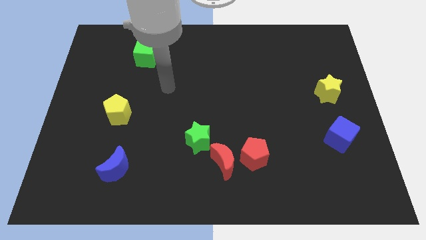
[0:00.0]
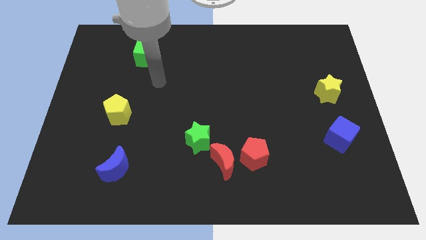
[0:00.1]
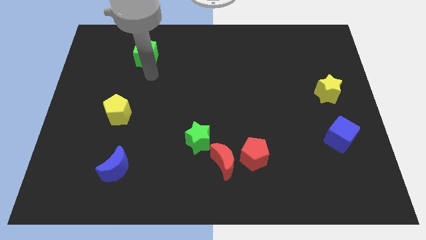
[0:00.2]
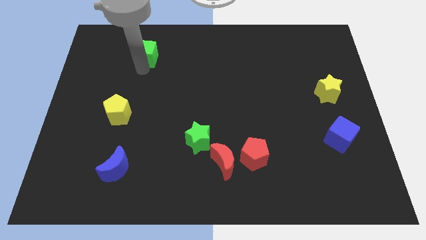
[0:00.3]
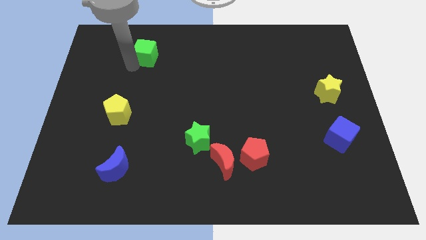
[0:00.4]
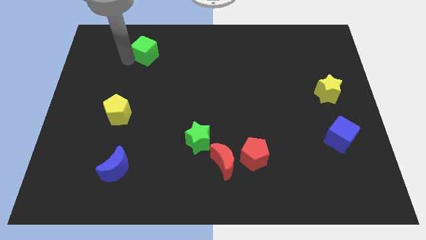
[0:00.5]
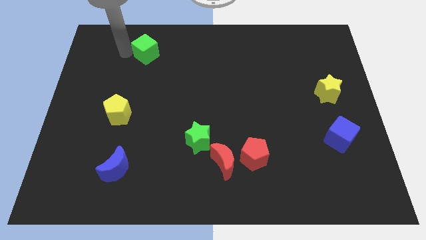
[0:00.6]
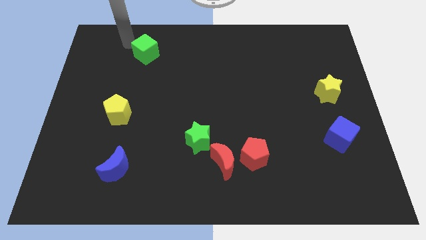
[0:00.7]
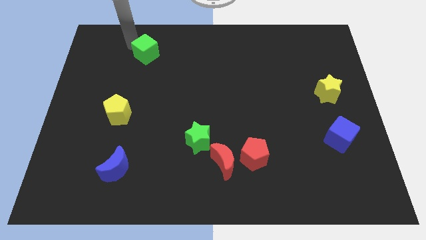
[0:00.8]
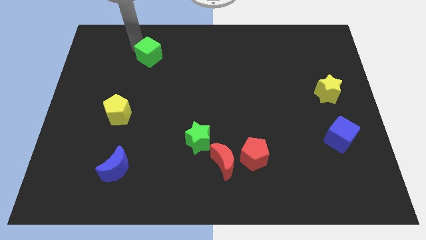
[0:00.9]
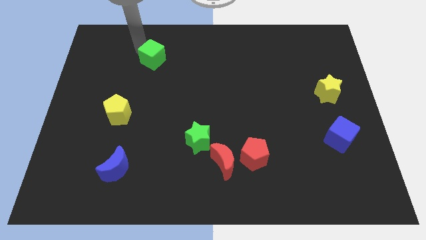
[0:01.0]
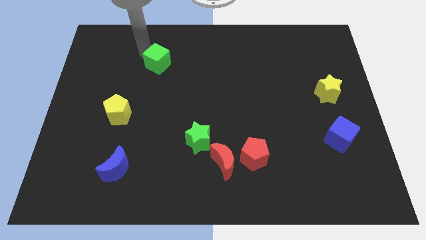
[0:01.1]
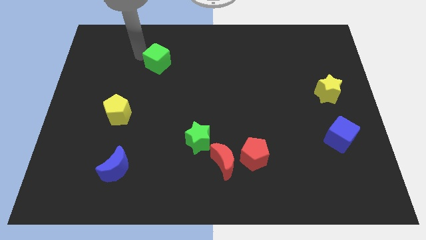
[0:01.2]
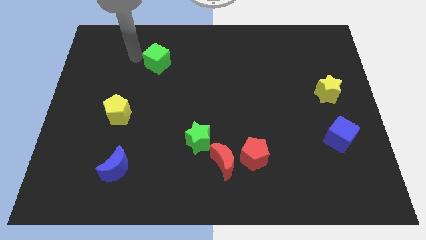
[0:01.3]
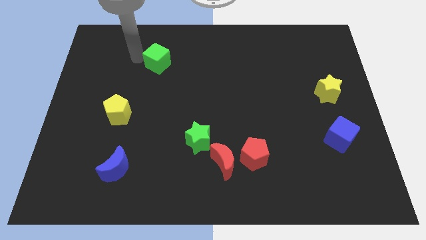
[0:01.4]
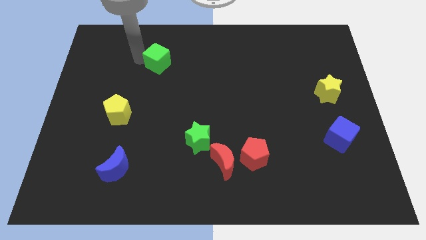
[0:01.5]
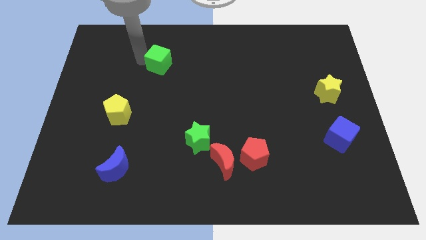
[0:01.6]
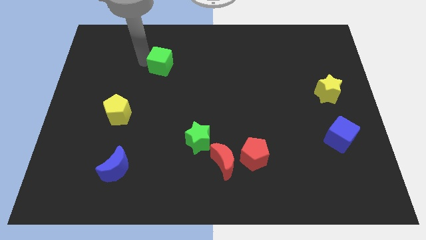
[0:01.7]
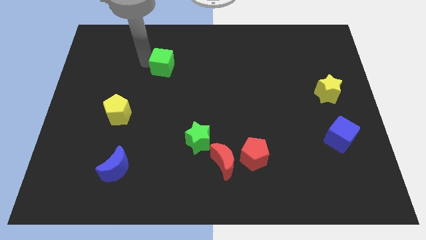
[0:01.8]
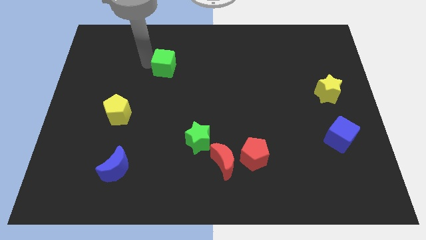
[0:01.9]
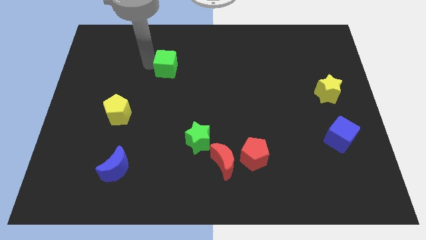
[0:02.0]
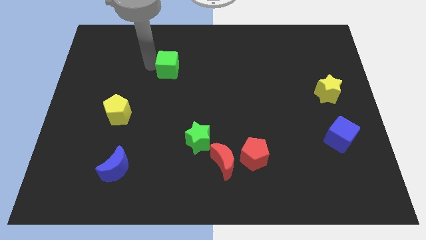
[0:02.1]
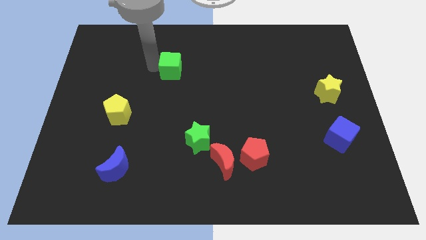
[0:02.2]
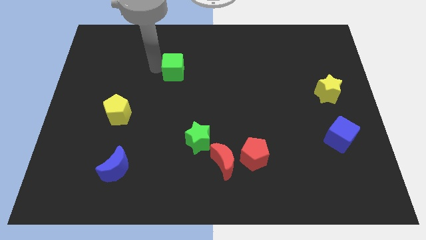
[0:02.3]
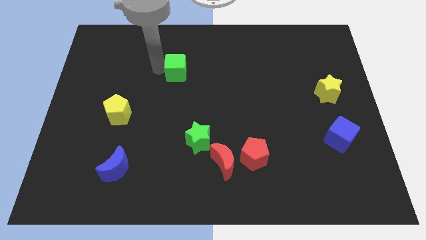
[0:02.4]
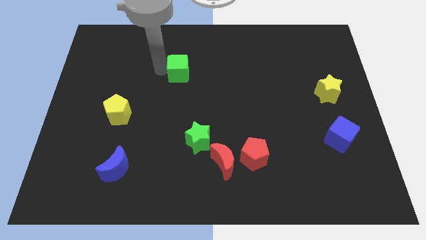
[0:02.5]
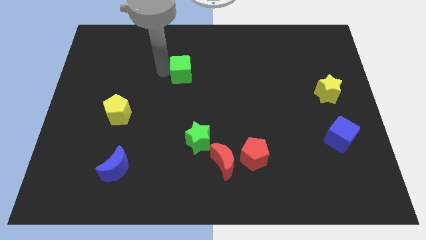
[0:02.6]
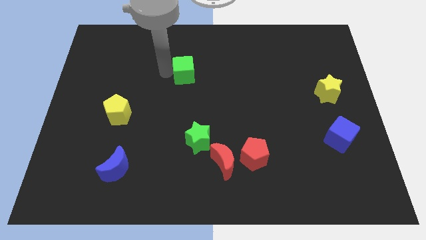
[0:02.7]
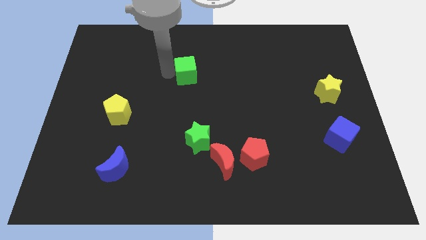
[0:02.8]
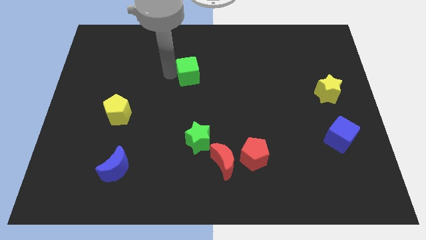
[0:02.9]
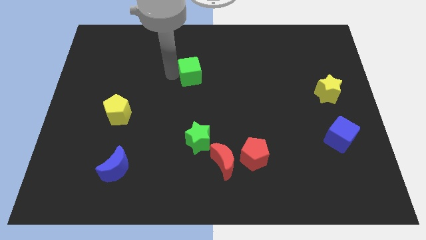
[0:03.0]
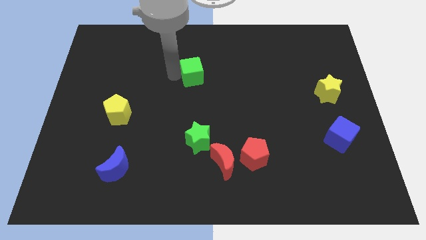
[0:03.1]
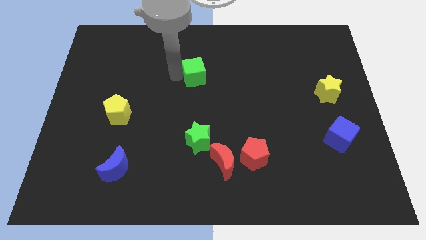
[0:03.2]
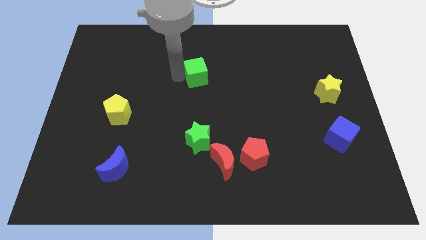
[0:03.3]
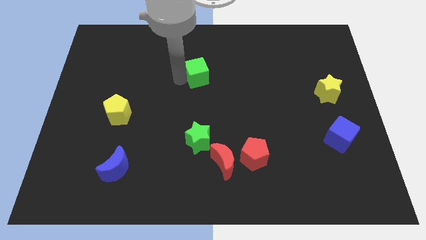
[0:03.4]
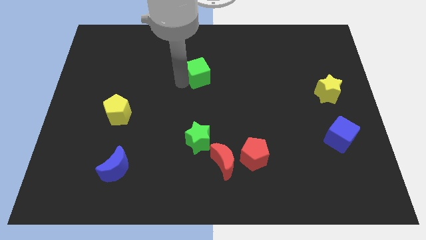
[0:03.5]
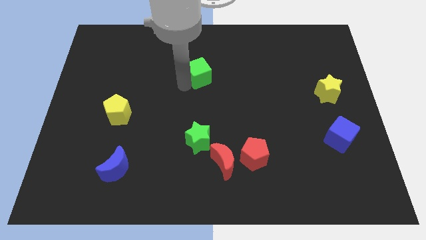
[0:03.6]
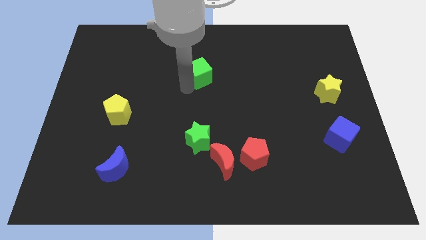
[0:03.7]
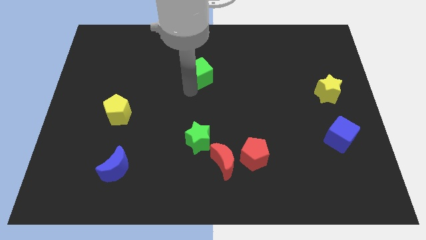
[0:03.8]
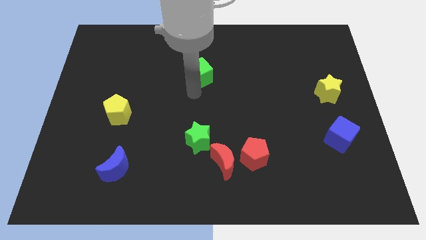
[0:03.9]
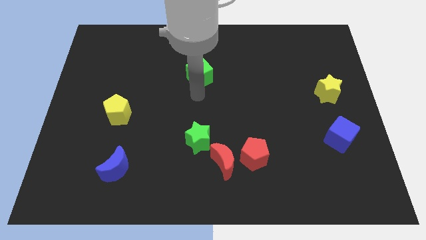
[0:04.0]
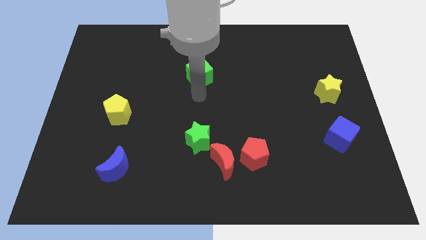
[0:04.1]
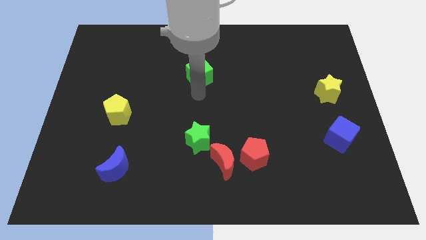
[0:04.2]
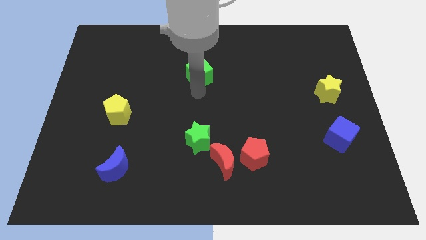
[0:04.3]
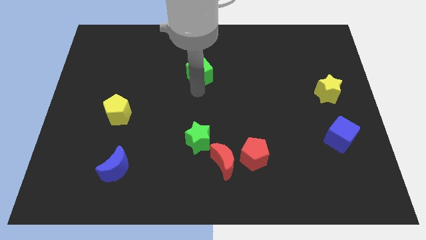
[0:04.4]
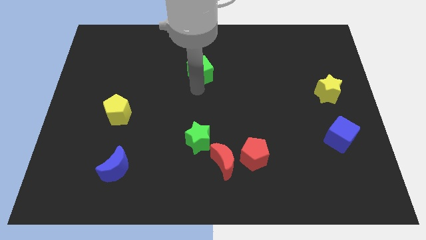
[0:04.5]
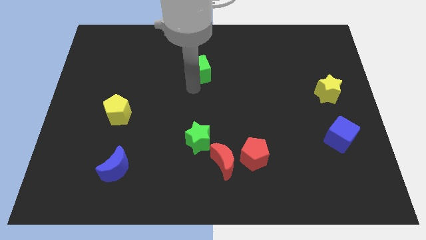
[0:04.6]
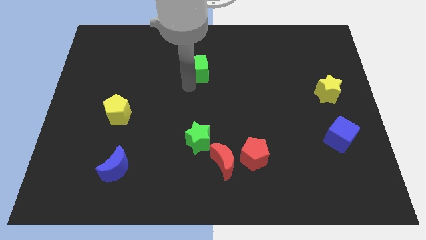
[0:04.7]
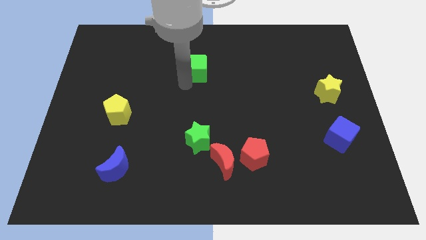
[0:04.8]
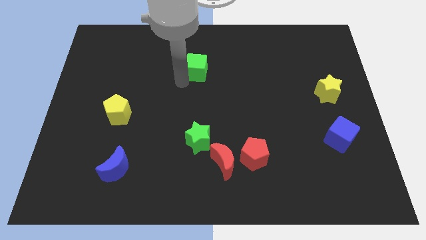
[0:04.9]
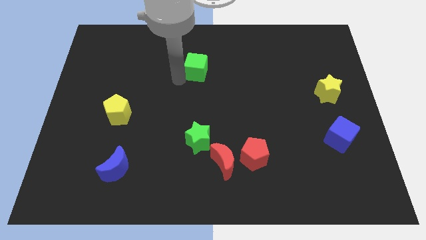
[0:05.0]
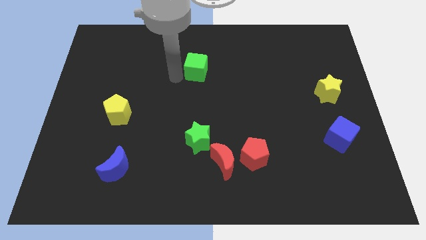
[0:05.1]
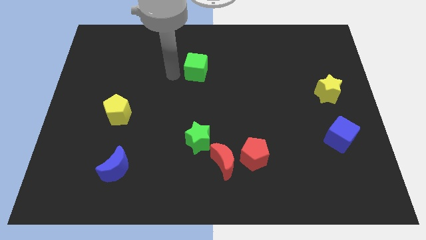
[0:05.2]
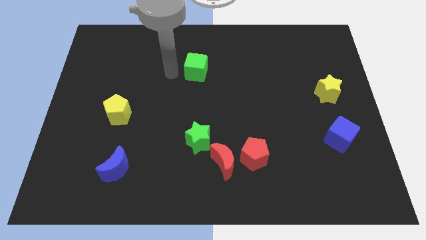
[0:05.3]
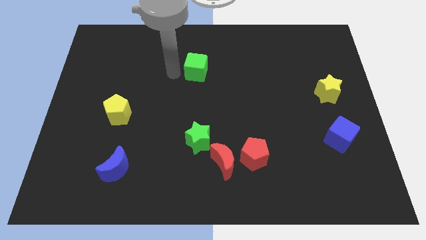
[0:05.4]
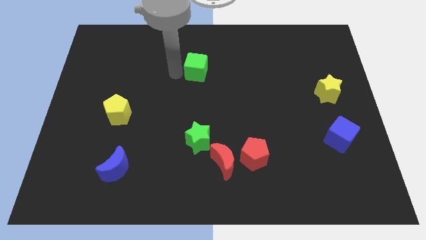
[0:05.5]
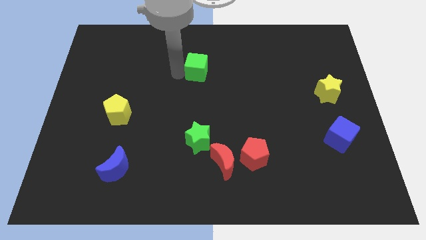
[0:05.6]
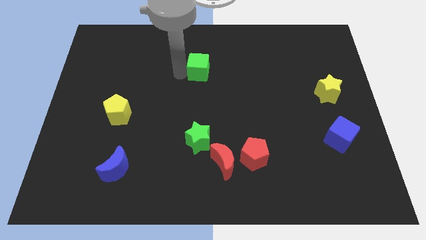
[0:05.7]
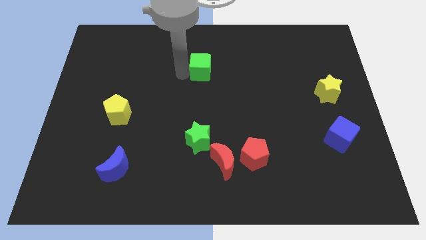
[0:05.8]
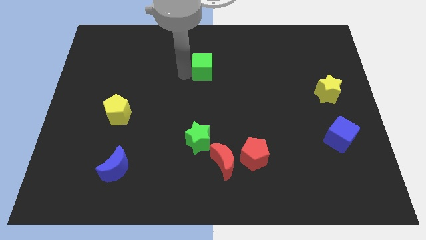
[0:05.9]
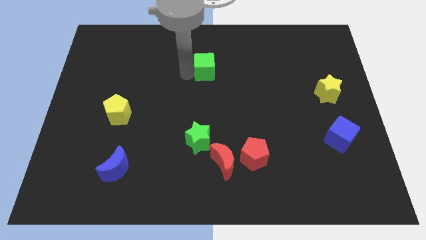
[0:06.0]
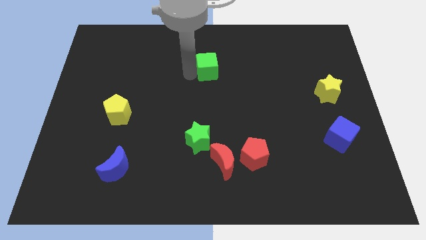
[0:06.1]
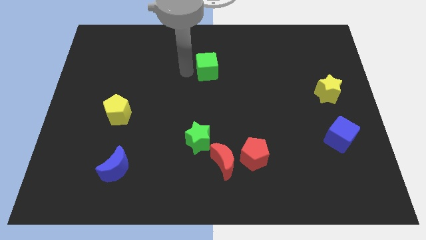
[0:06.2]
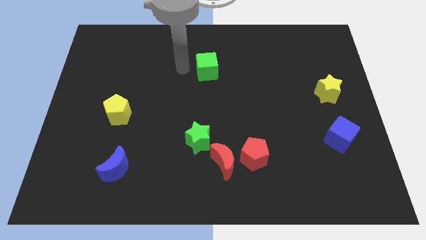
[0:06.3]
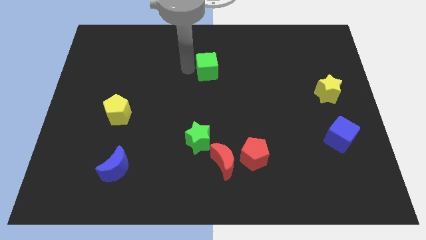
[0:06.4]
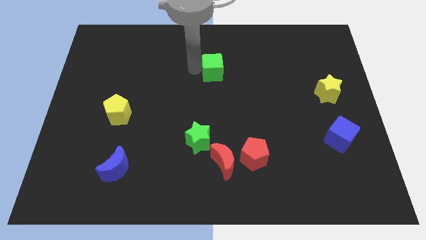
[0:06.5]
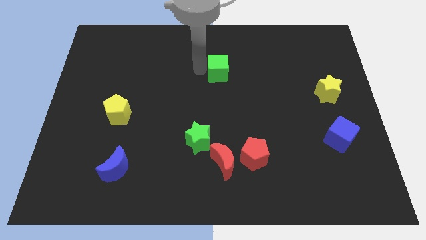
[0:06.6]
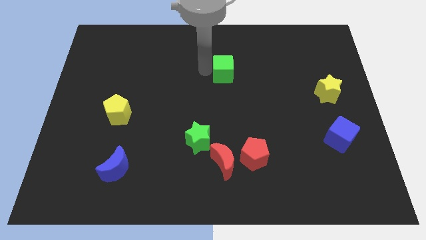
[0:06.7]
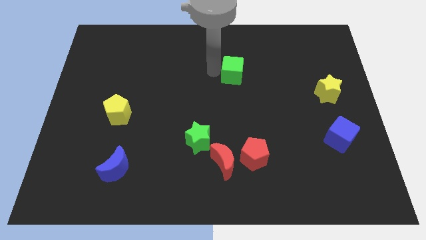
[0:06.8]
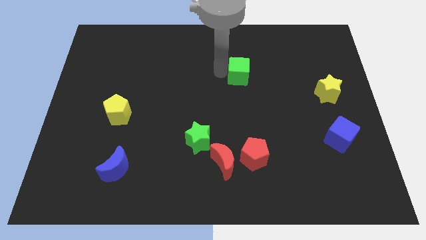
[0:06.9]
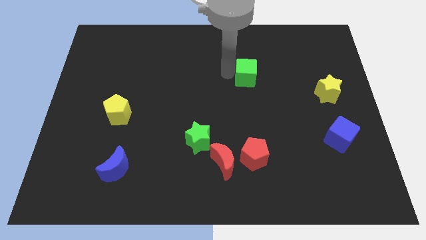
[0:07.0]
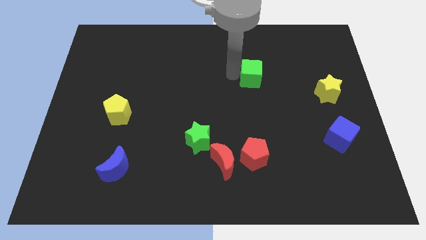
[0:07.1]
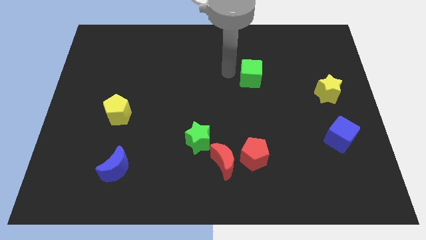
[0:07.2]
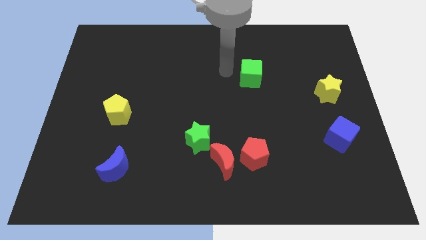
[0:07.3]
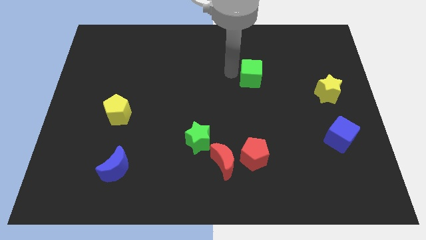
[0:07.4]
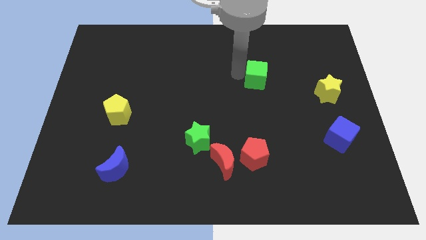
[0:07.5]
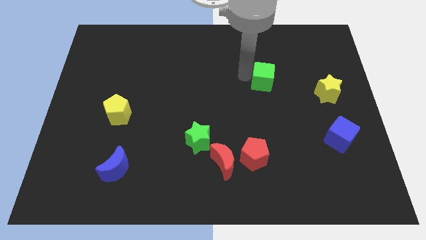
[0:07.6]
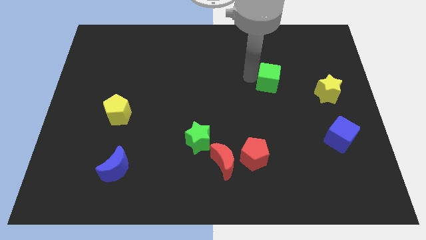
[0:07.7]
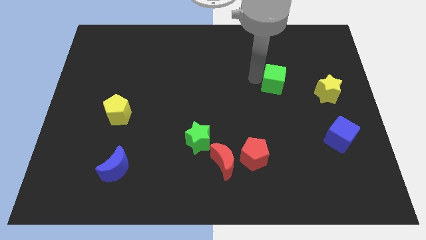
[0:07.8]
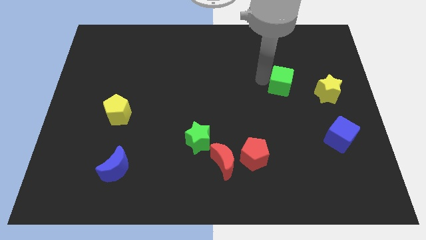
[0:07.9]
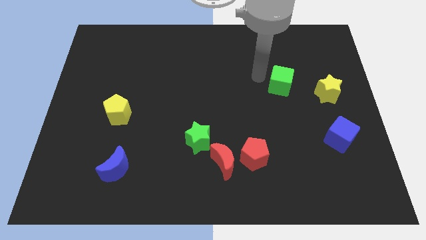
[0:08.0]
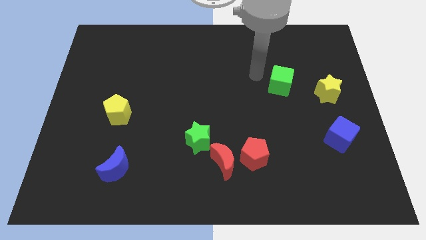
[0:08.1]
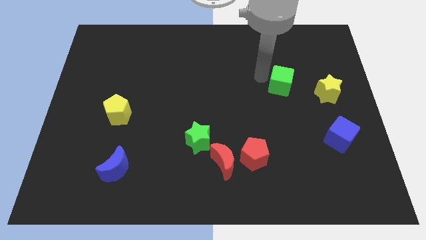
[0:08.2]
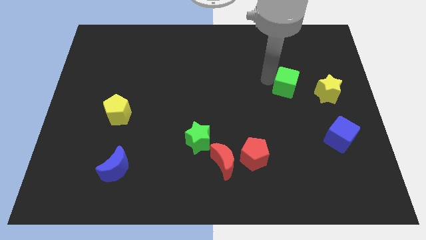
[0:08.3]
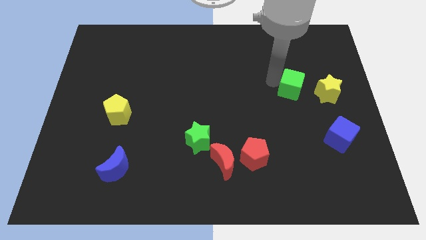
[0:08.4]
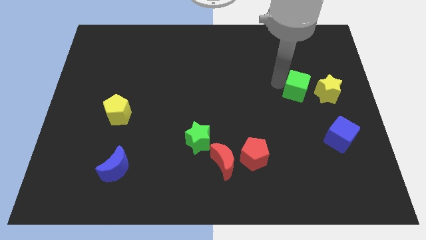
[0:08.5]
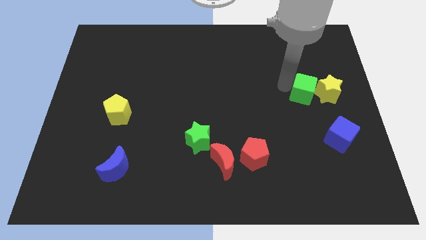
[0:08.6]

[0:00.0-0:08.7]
push the green cube to the yellow star
